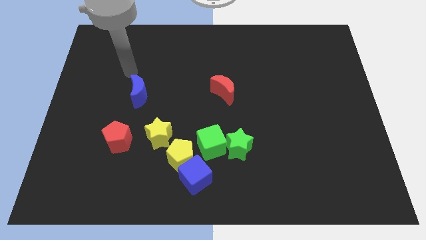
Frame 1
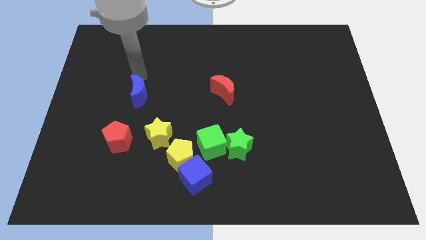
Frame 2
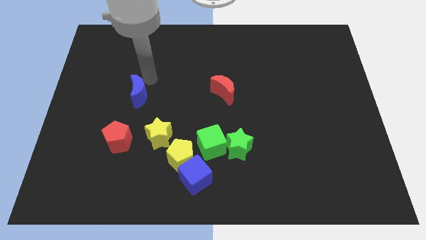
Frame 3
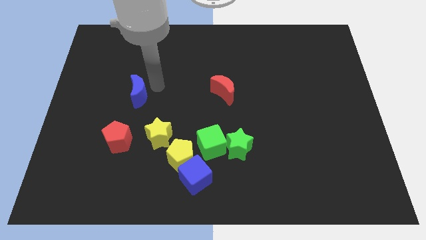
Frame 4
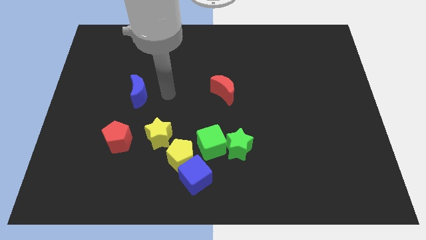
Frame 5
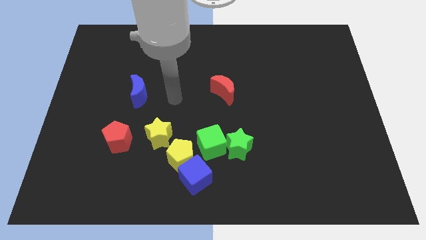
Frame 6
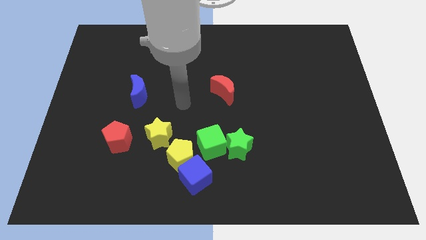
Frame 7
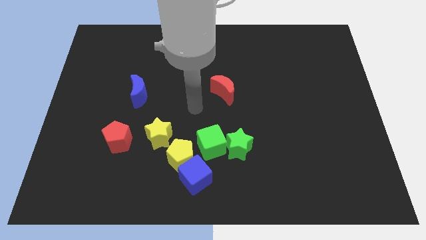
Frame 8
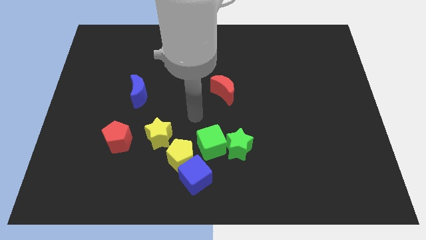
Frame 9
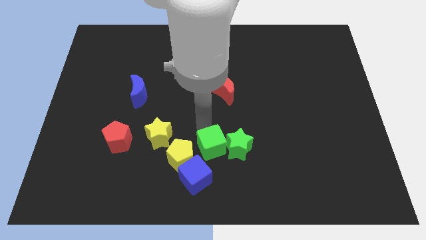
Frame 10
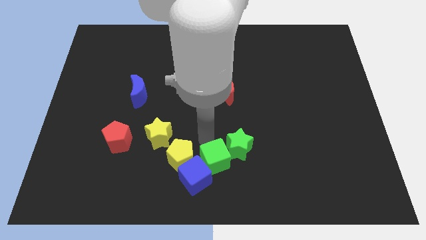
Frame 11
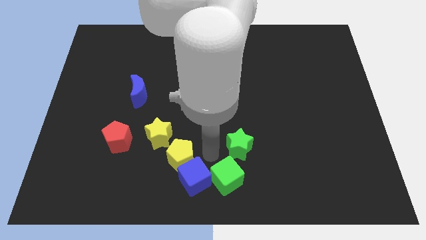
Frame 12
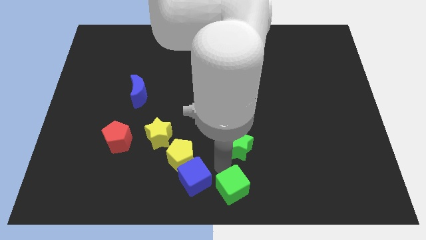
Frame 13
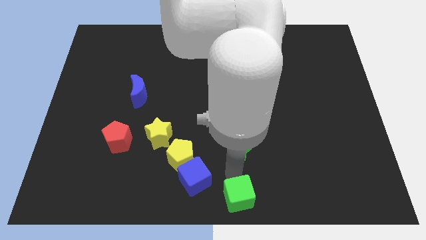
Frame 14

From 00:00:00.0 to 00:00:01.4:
pull the green star apart from the green cube

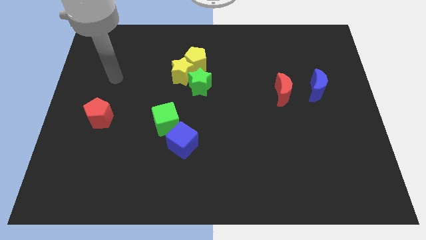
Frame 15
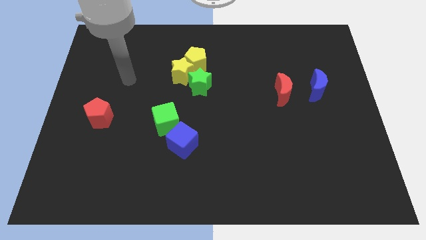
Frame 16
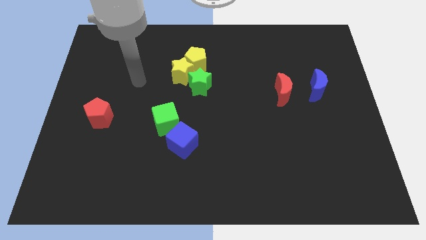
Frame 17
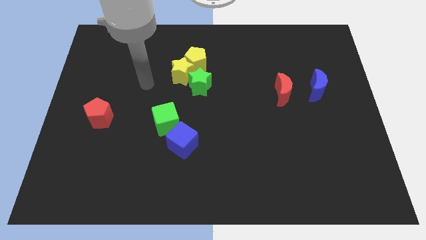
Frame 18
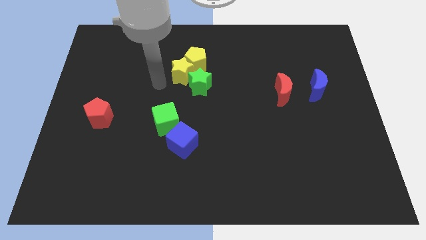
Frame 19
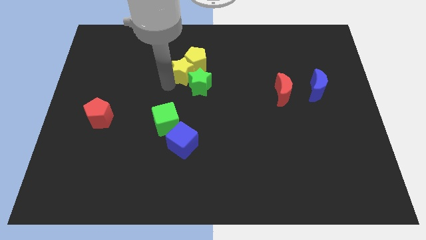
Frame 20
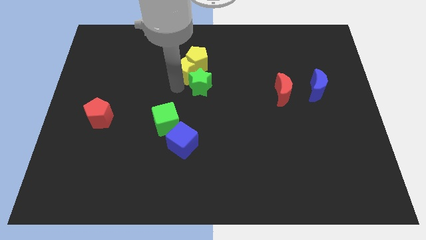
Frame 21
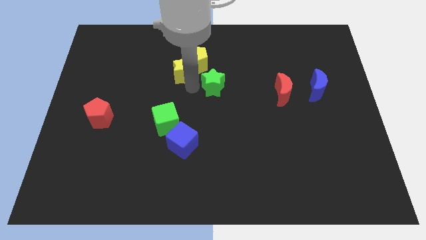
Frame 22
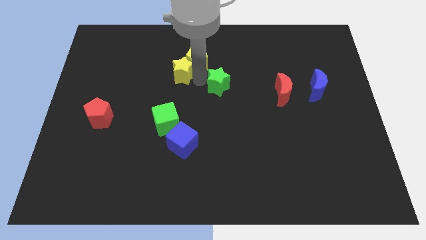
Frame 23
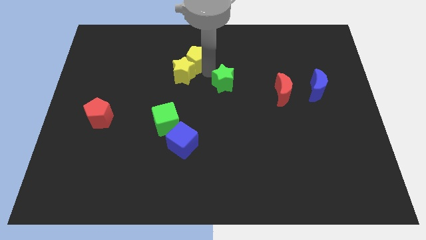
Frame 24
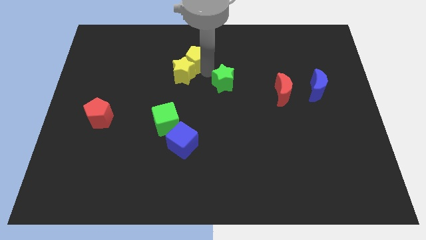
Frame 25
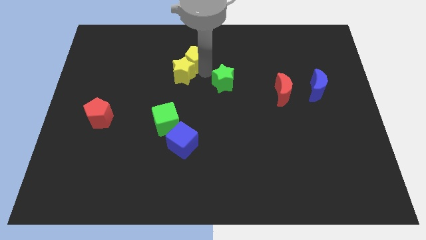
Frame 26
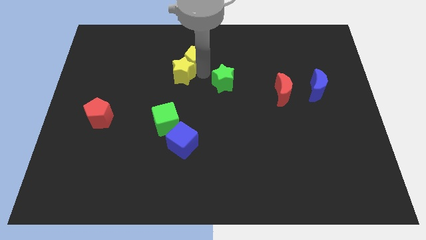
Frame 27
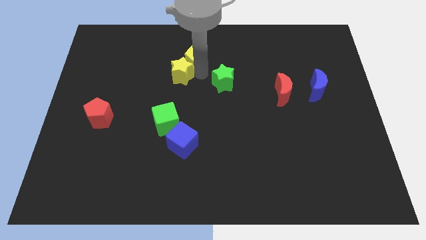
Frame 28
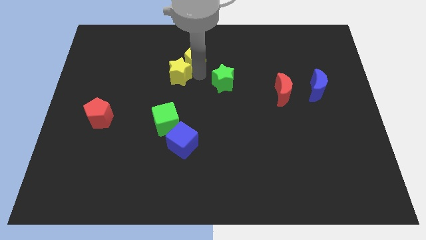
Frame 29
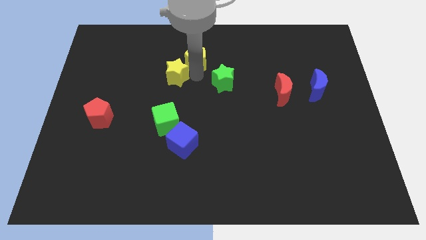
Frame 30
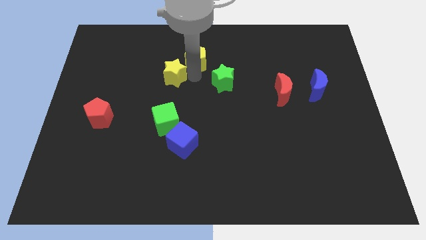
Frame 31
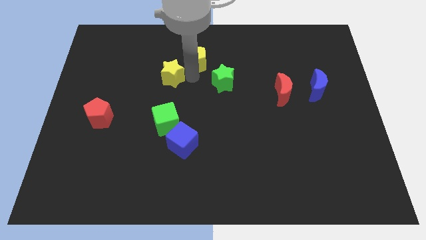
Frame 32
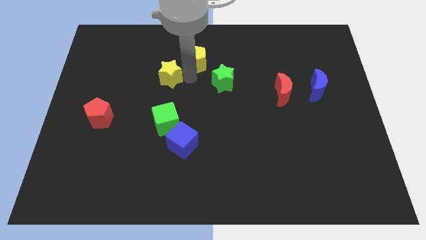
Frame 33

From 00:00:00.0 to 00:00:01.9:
pull the yellow star apart from the yellow pentagon and green star

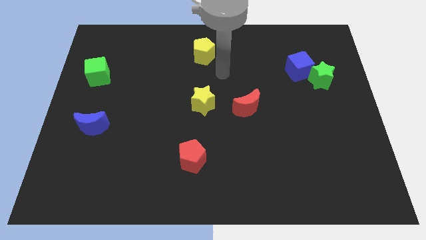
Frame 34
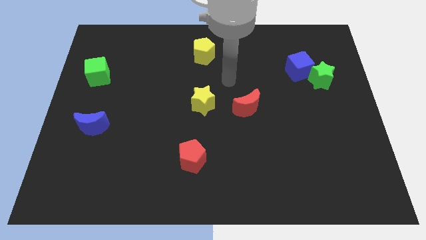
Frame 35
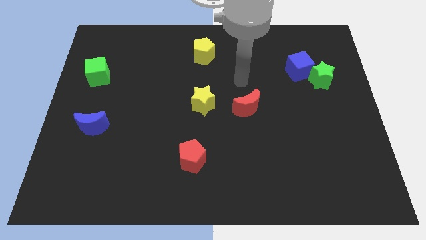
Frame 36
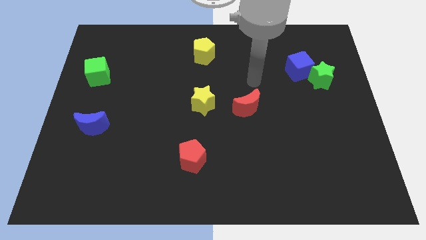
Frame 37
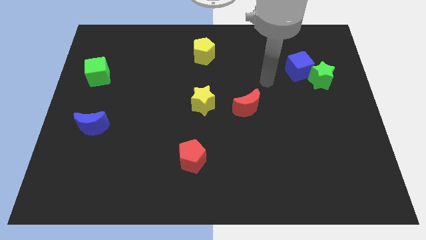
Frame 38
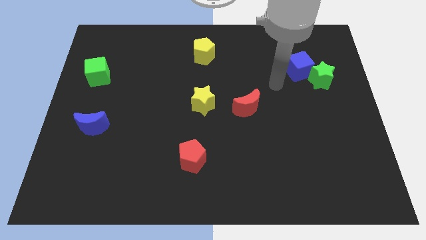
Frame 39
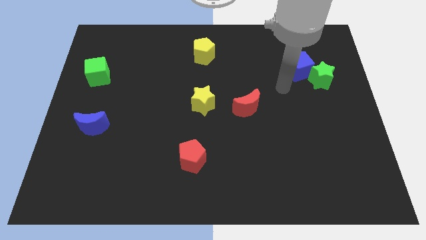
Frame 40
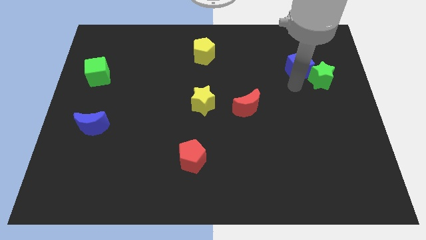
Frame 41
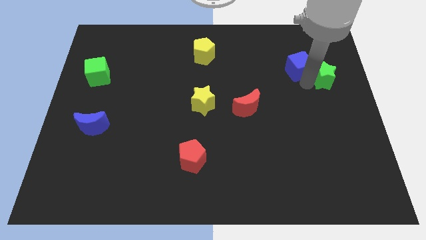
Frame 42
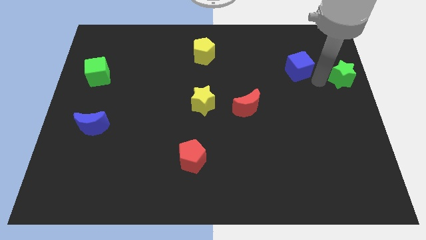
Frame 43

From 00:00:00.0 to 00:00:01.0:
pull the blue cube apart from the green star

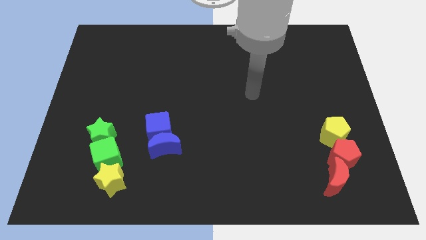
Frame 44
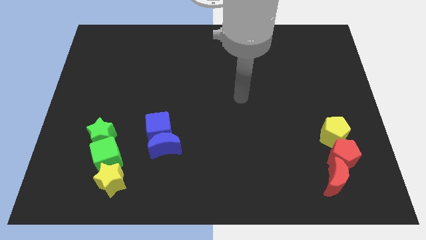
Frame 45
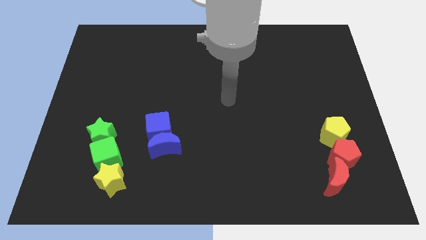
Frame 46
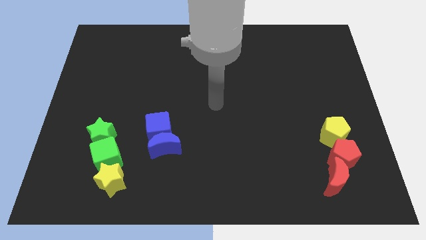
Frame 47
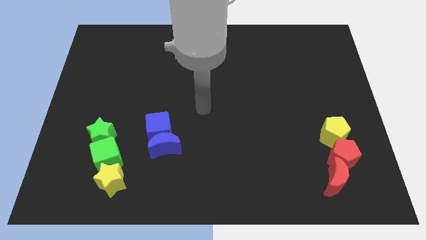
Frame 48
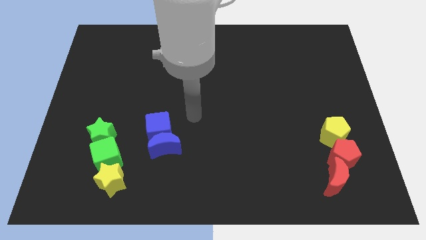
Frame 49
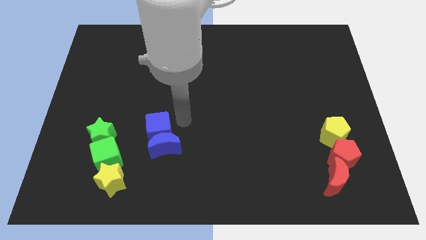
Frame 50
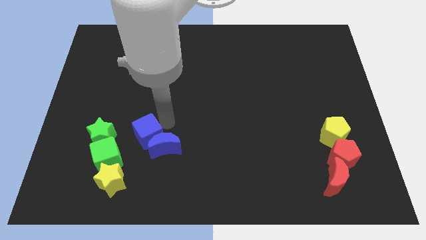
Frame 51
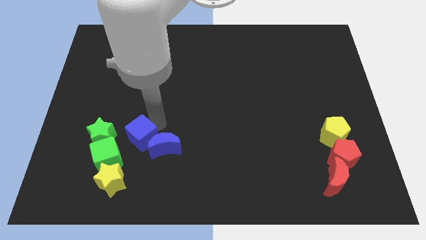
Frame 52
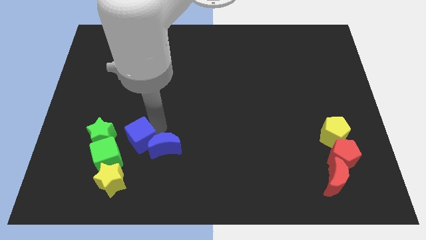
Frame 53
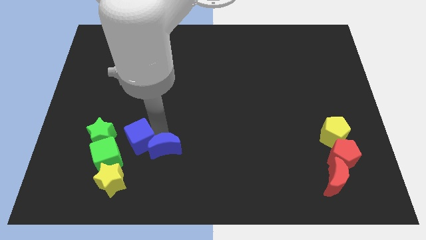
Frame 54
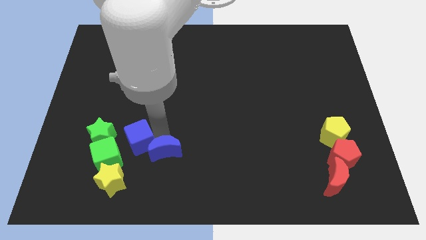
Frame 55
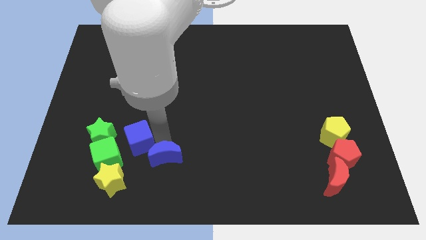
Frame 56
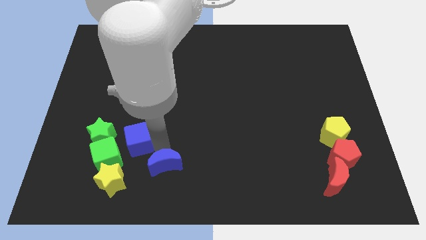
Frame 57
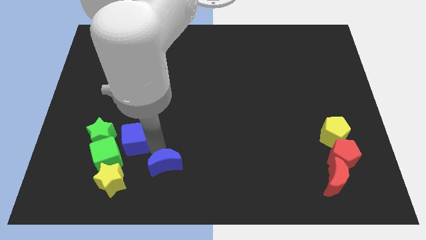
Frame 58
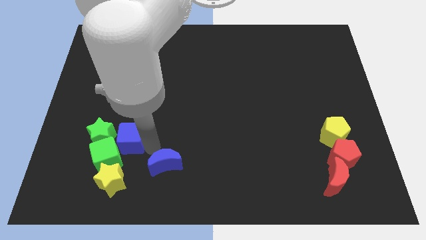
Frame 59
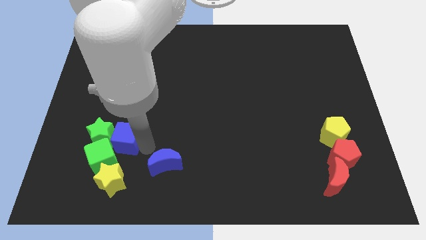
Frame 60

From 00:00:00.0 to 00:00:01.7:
move the blue moon away from the blue cube

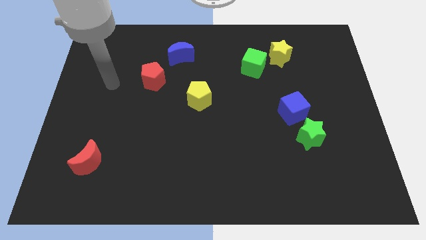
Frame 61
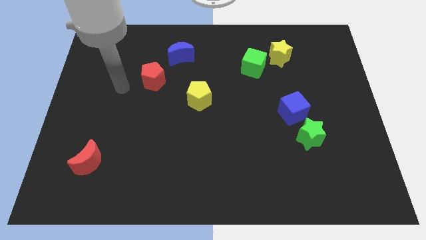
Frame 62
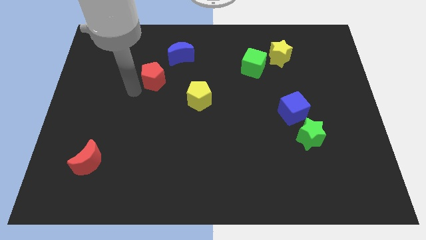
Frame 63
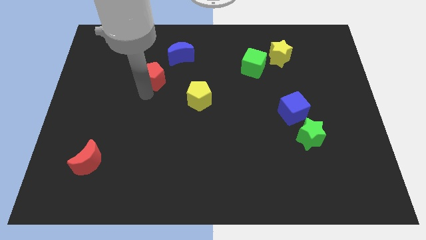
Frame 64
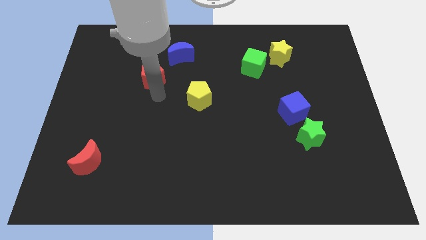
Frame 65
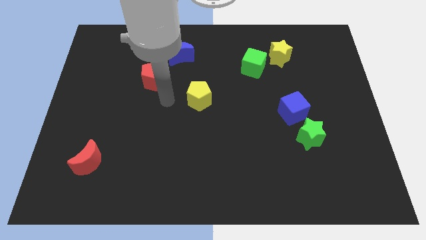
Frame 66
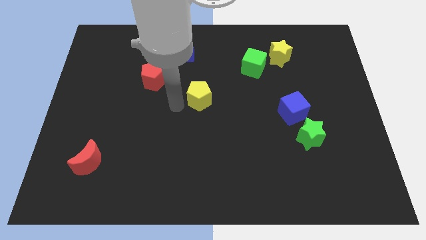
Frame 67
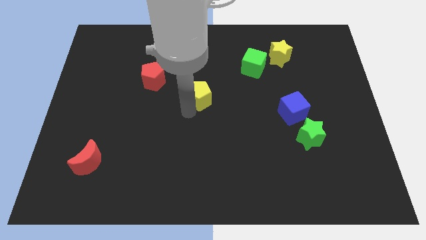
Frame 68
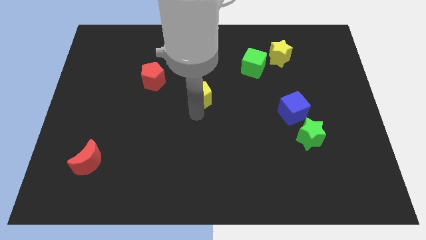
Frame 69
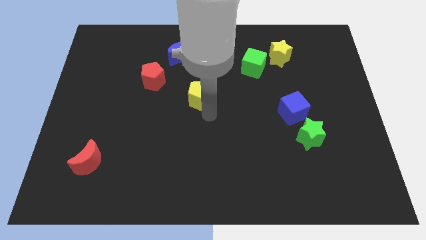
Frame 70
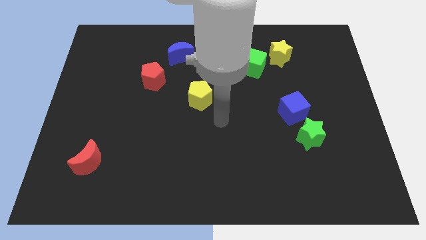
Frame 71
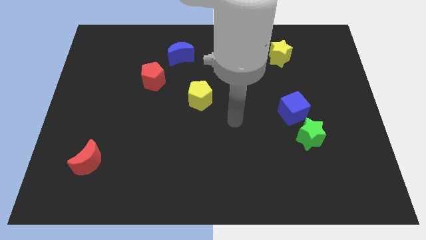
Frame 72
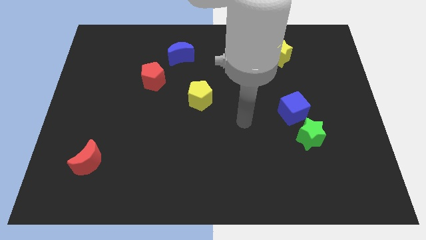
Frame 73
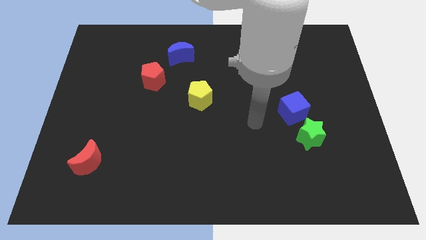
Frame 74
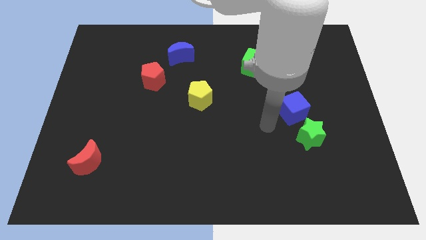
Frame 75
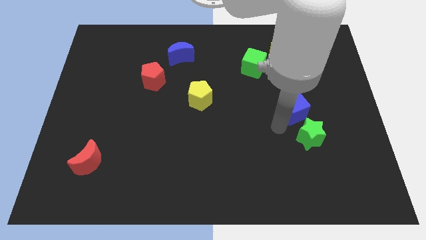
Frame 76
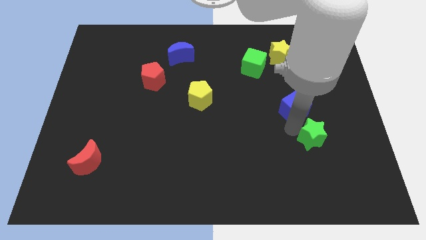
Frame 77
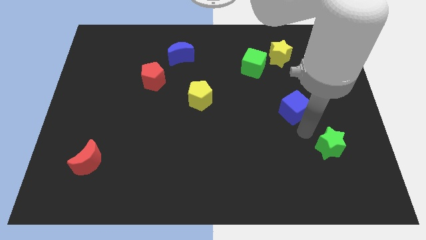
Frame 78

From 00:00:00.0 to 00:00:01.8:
separate the blue cube from the green star

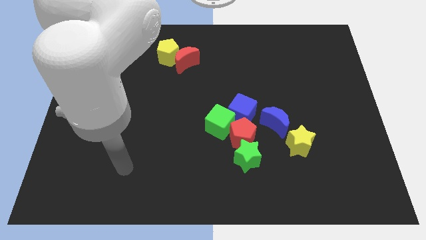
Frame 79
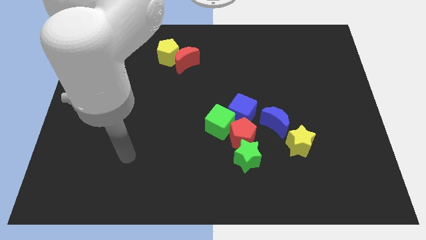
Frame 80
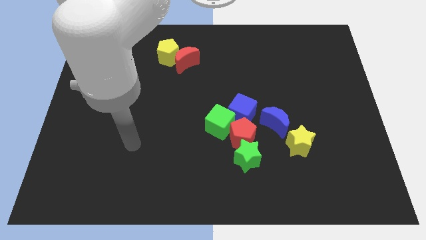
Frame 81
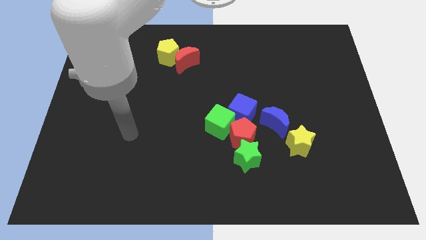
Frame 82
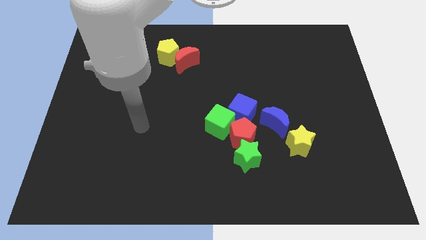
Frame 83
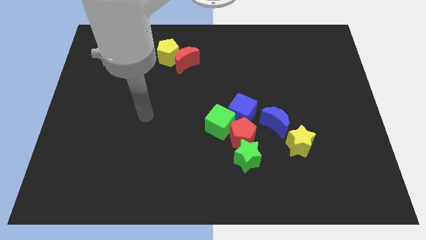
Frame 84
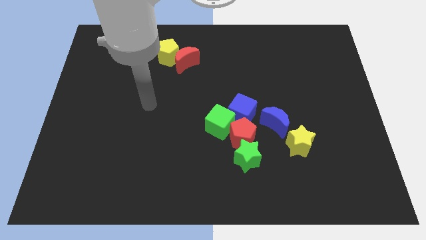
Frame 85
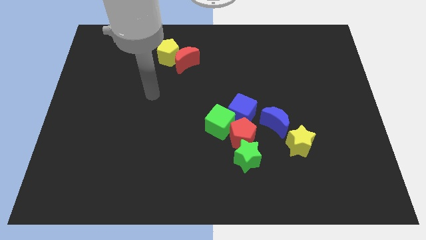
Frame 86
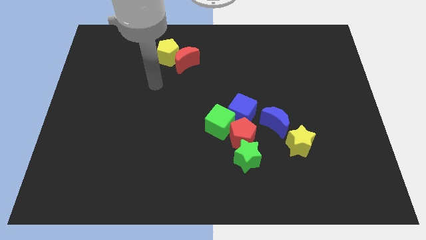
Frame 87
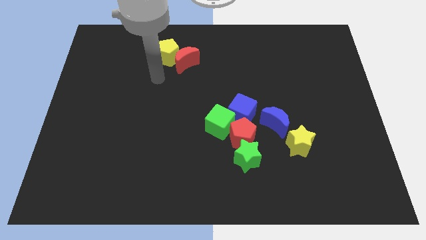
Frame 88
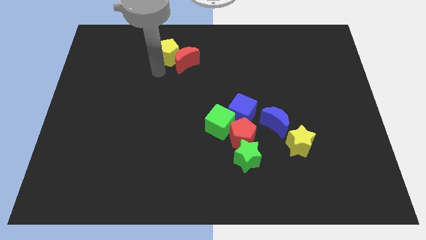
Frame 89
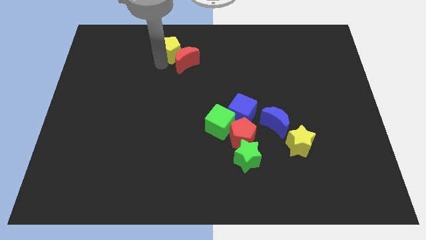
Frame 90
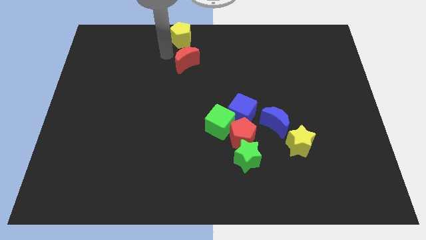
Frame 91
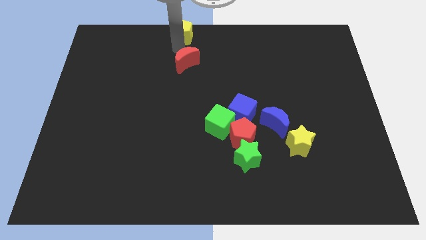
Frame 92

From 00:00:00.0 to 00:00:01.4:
separate the red moon from the yellow pentagon
